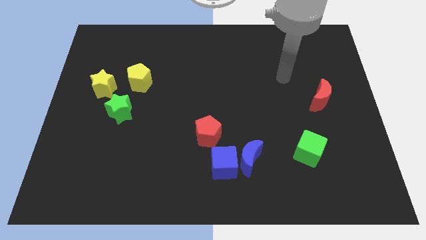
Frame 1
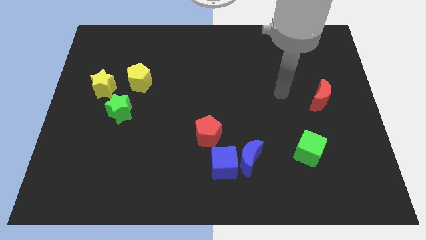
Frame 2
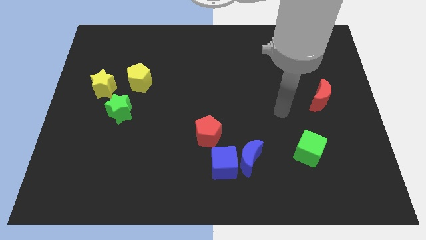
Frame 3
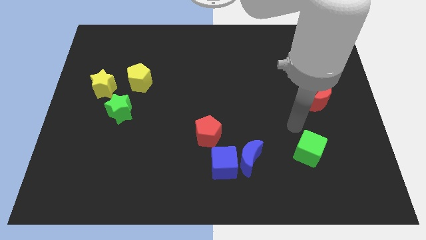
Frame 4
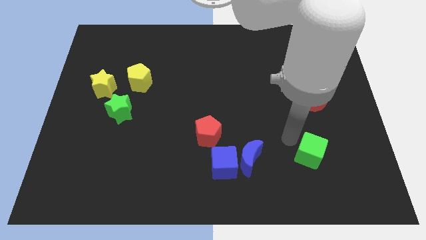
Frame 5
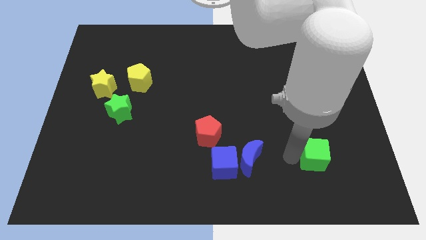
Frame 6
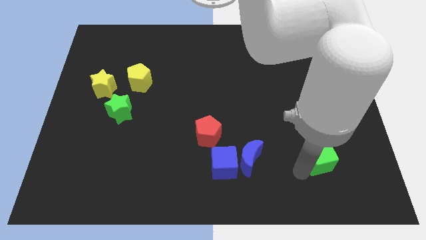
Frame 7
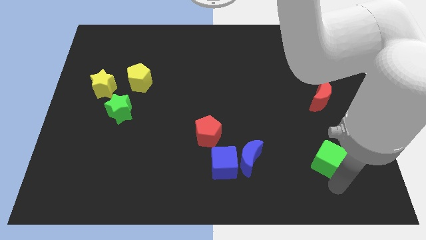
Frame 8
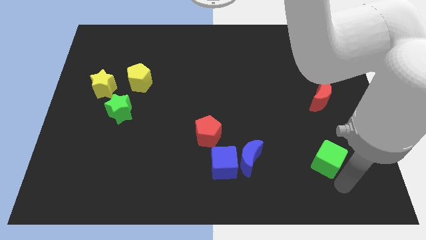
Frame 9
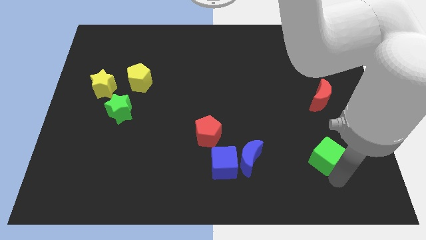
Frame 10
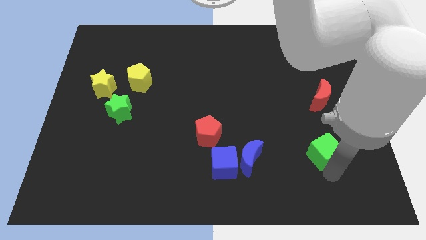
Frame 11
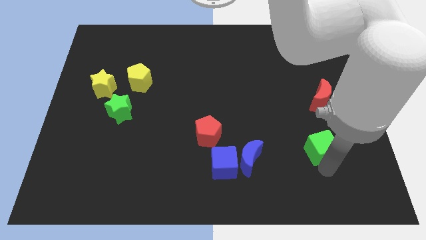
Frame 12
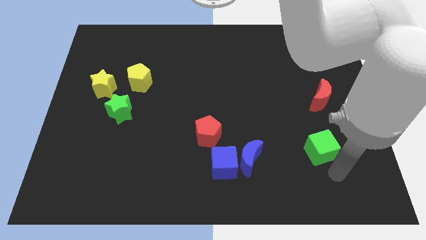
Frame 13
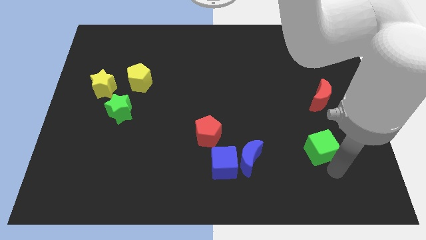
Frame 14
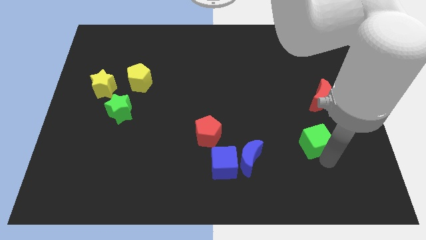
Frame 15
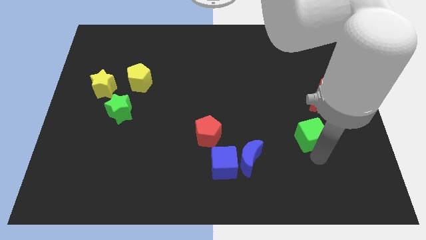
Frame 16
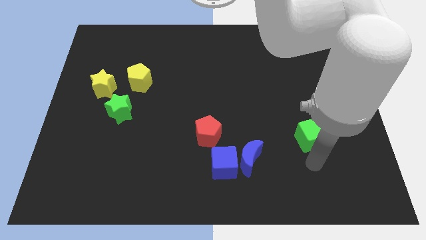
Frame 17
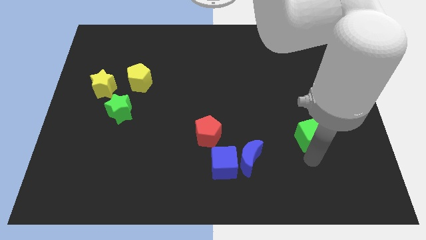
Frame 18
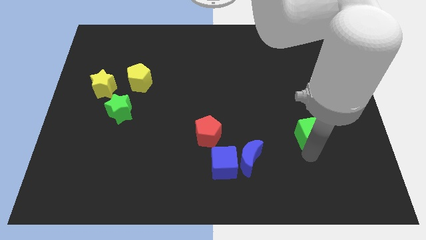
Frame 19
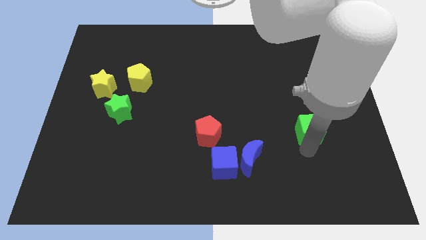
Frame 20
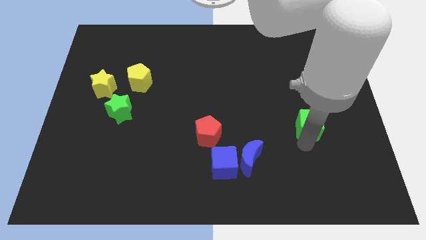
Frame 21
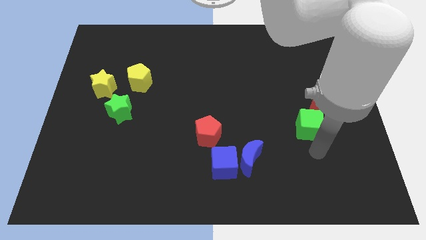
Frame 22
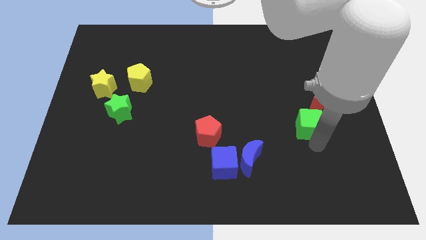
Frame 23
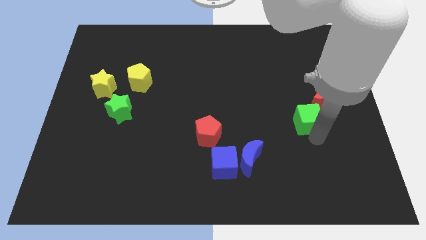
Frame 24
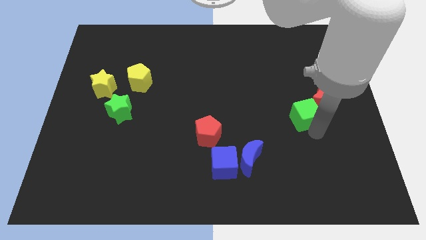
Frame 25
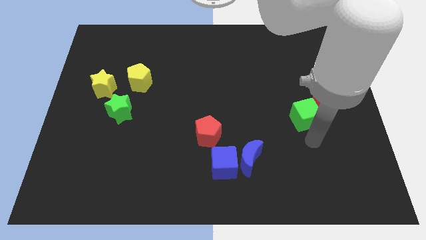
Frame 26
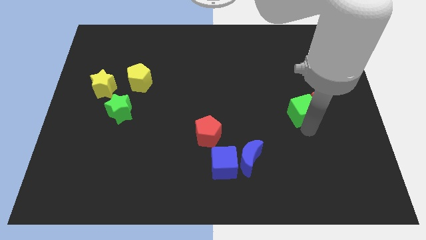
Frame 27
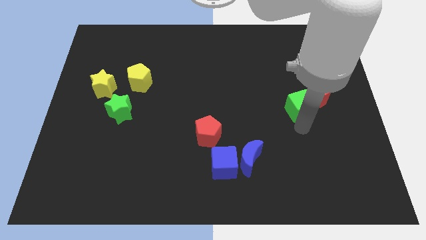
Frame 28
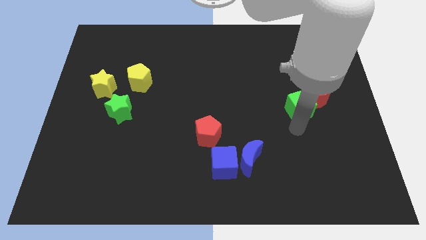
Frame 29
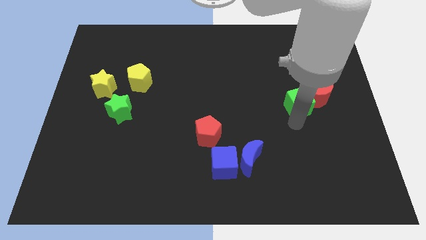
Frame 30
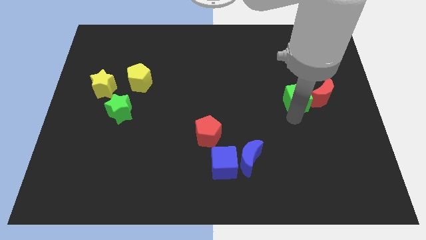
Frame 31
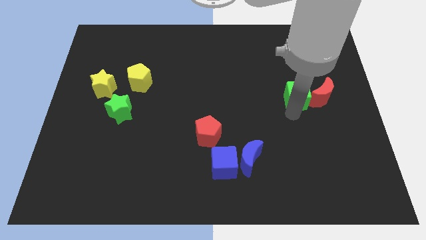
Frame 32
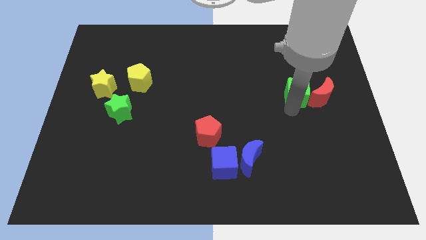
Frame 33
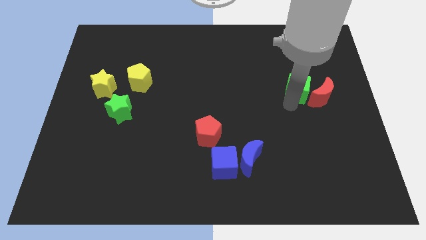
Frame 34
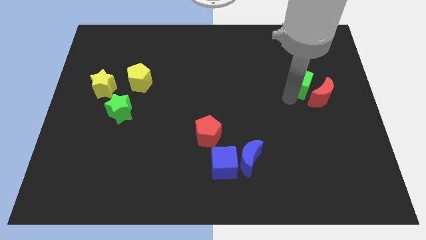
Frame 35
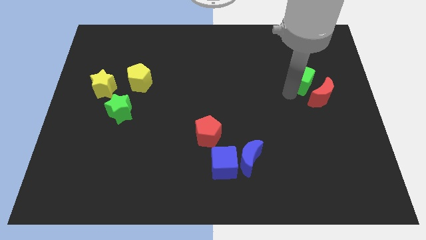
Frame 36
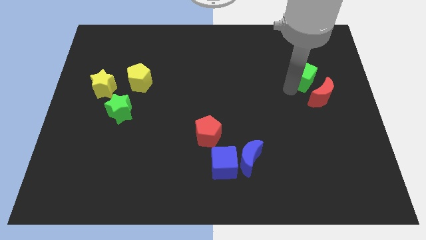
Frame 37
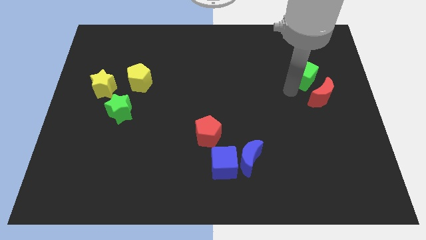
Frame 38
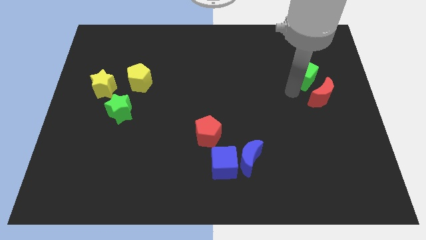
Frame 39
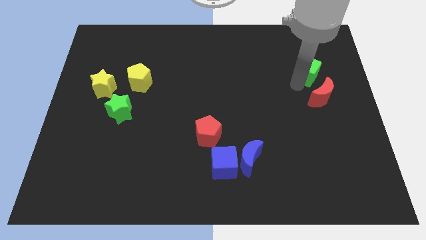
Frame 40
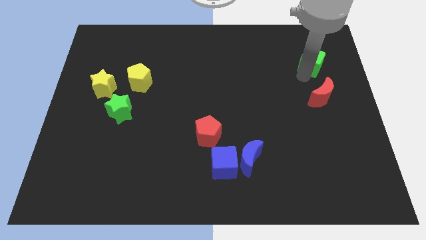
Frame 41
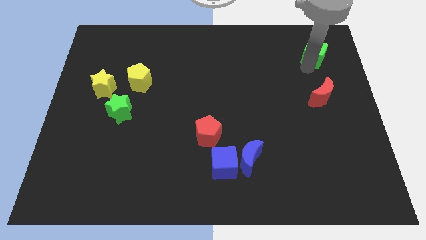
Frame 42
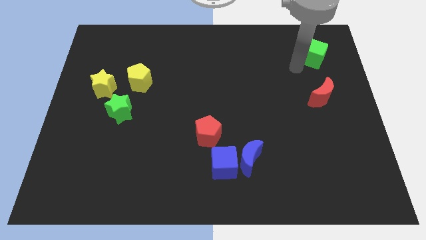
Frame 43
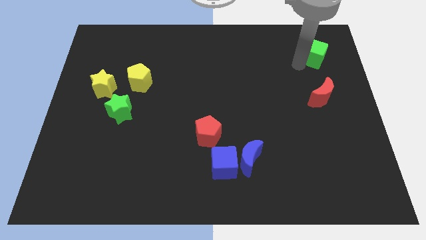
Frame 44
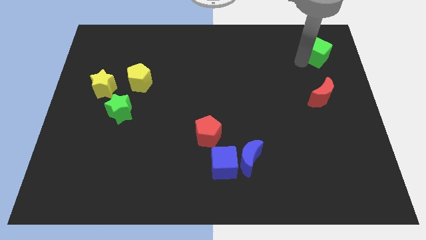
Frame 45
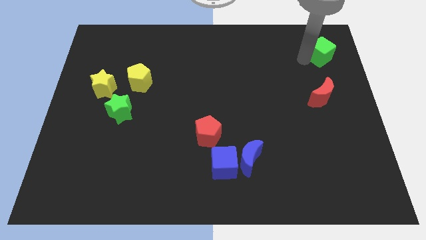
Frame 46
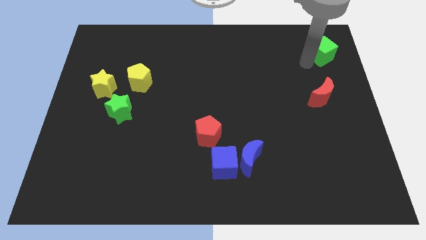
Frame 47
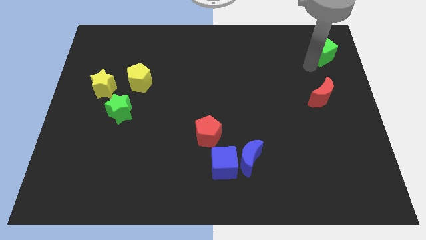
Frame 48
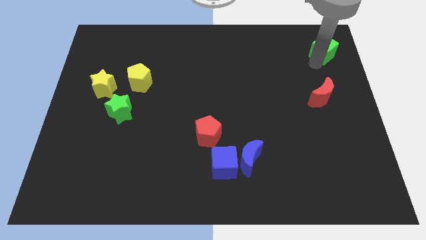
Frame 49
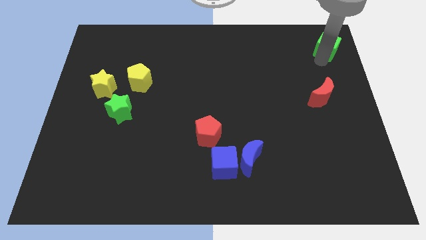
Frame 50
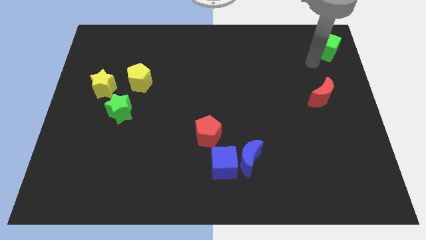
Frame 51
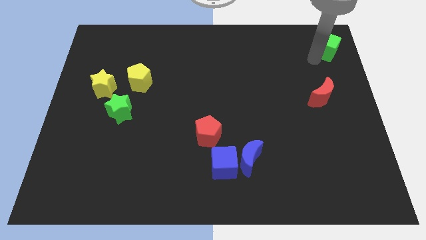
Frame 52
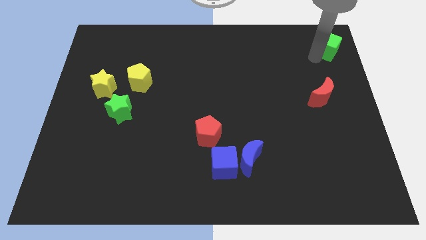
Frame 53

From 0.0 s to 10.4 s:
put the green cube to the top right of the board

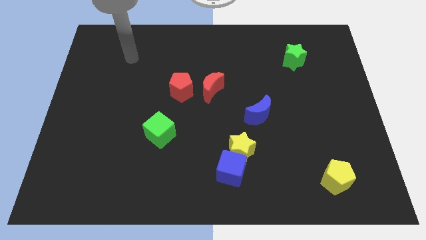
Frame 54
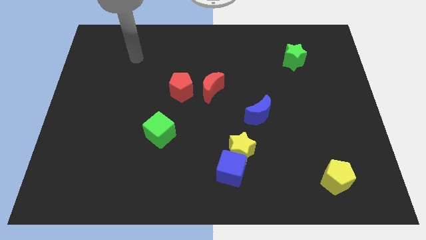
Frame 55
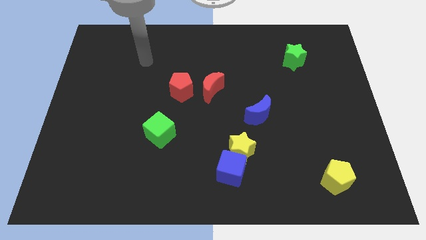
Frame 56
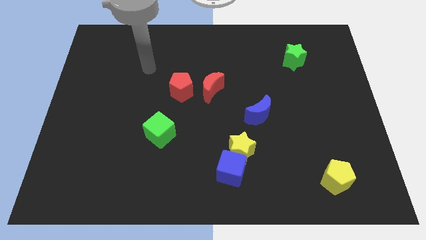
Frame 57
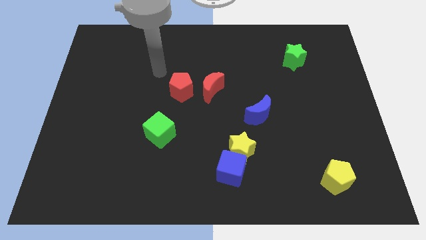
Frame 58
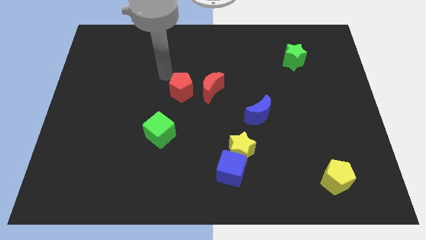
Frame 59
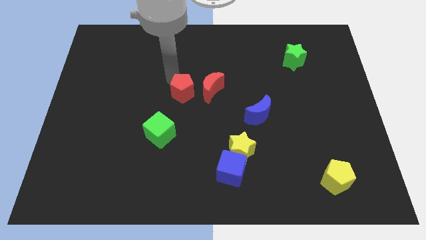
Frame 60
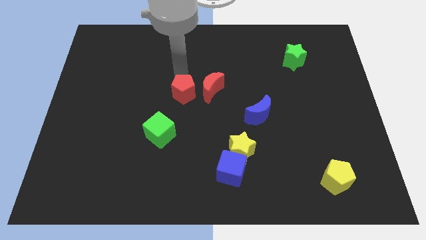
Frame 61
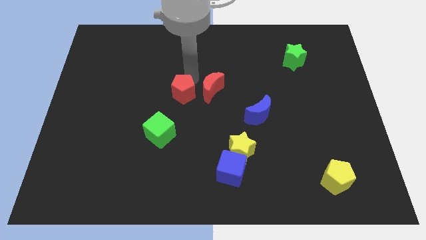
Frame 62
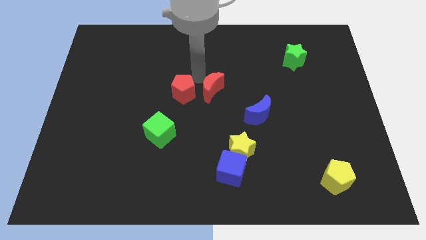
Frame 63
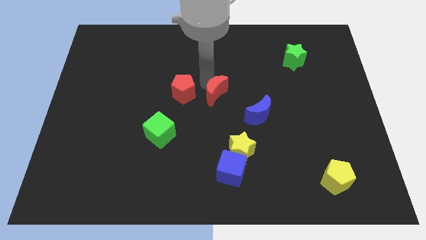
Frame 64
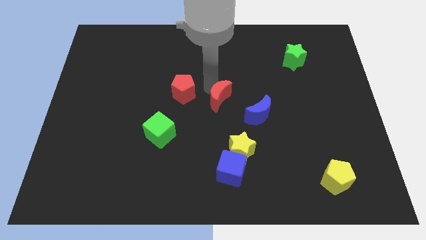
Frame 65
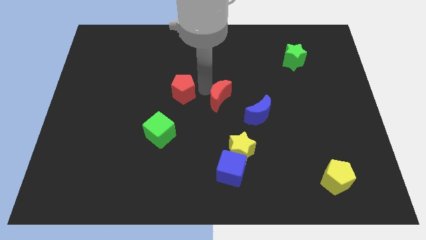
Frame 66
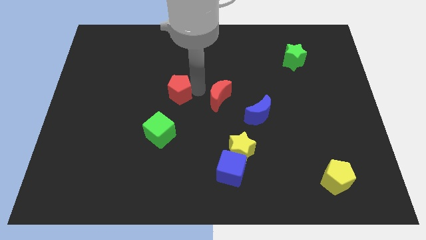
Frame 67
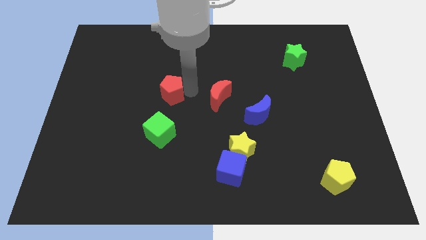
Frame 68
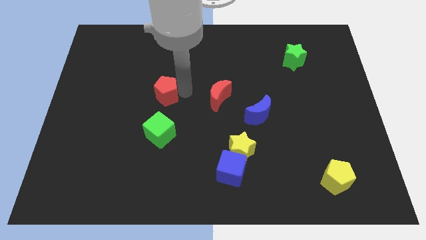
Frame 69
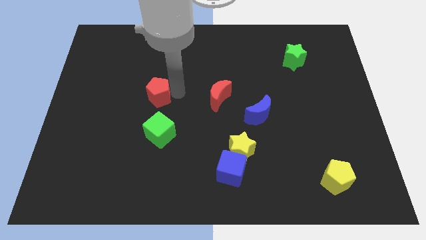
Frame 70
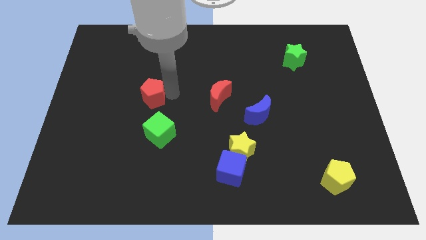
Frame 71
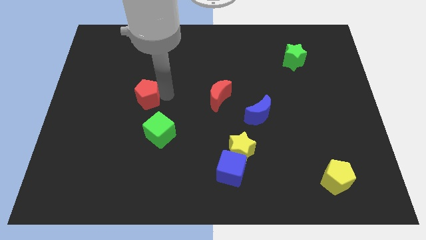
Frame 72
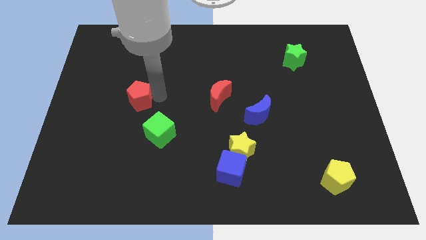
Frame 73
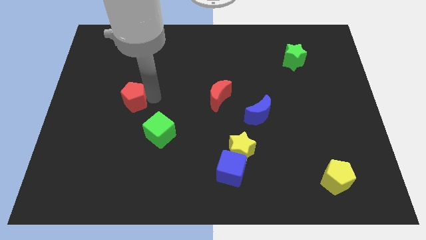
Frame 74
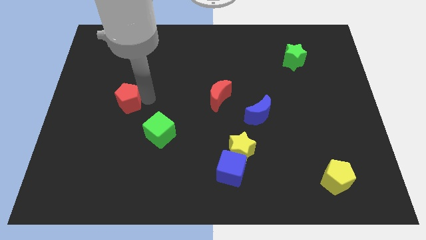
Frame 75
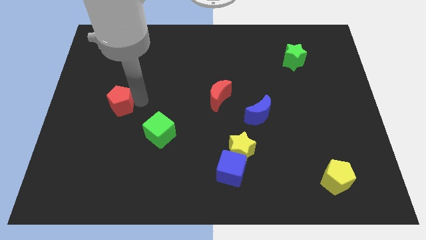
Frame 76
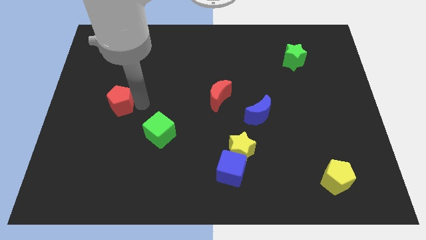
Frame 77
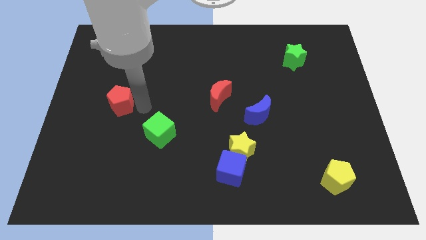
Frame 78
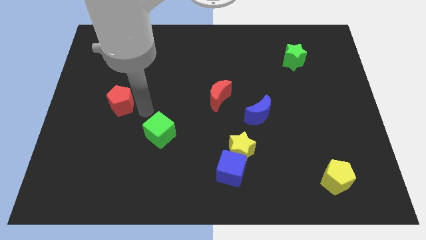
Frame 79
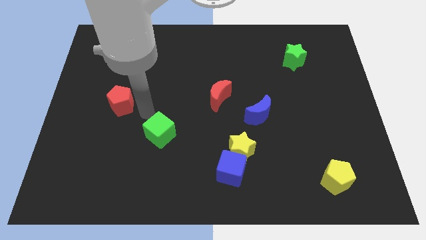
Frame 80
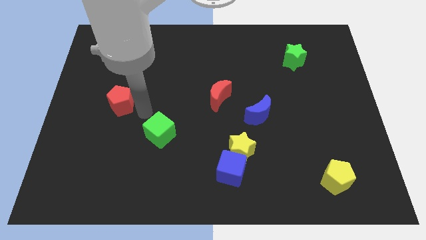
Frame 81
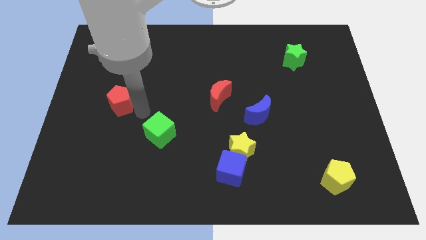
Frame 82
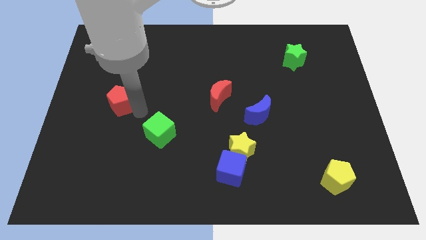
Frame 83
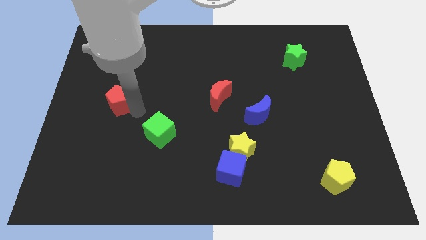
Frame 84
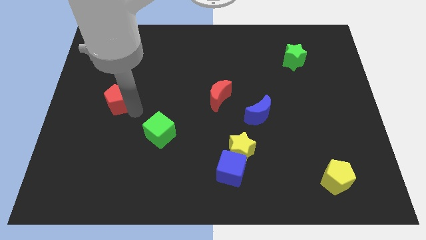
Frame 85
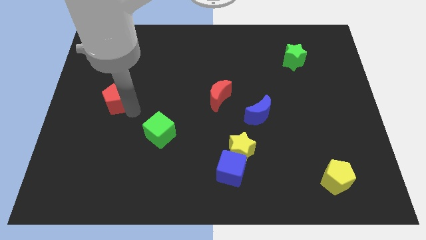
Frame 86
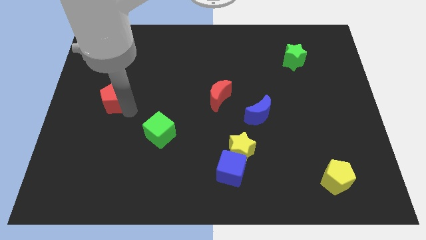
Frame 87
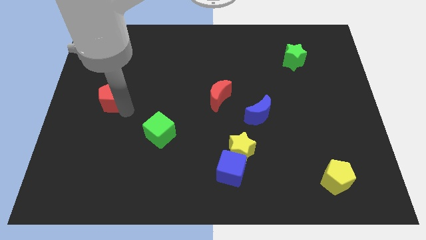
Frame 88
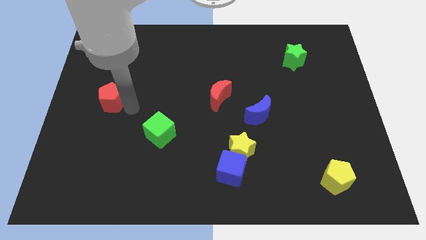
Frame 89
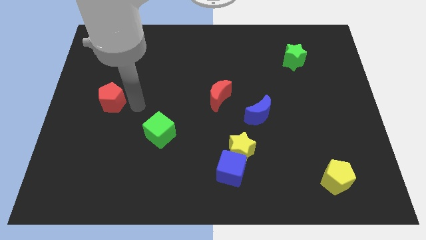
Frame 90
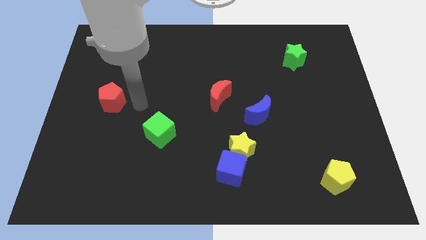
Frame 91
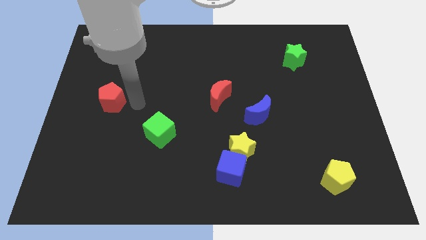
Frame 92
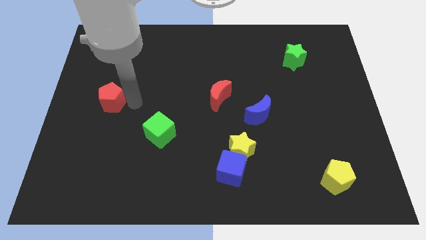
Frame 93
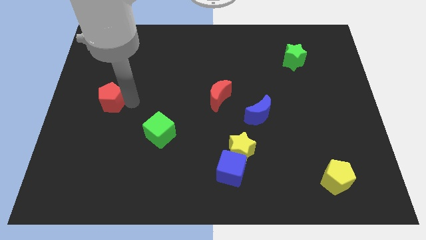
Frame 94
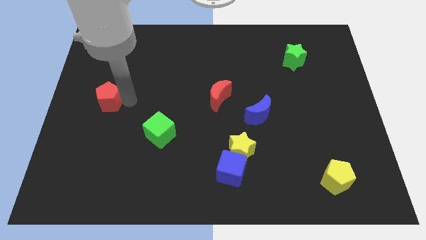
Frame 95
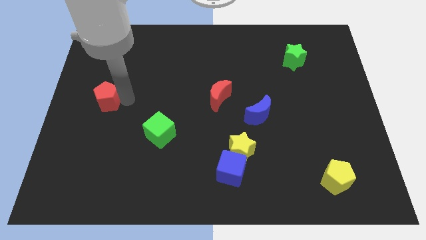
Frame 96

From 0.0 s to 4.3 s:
slide the red pentagon to the center left
